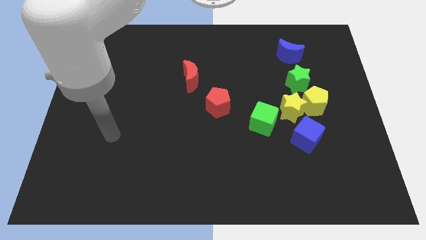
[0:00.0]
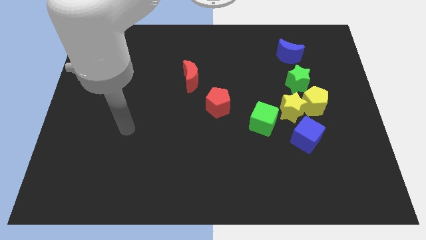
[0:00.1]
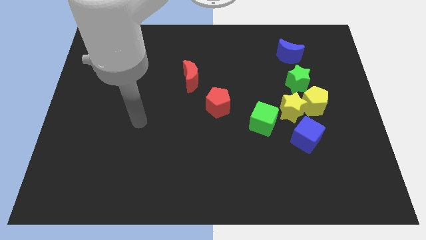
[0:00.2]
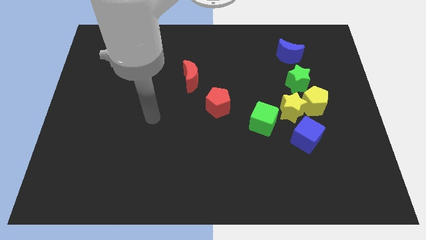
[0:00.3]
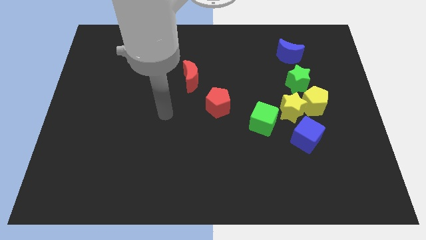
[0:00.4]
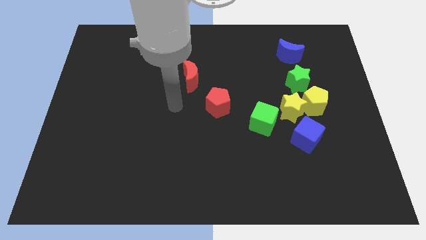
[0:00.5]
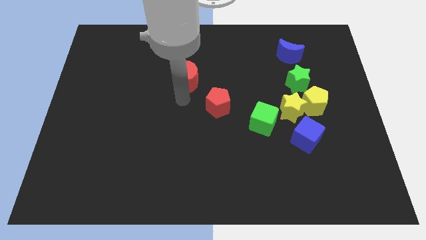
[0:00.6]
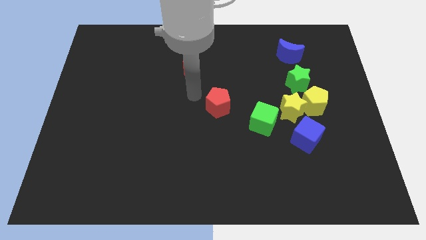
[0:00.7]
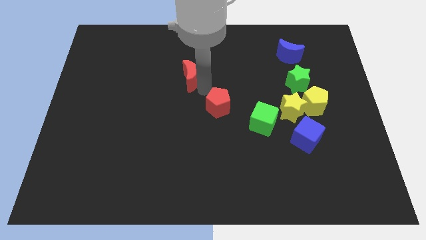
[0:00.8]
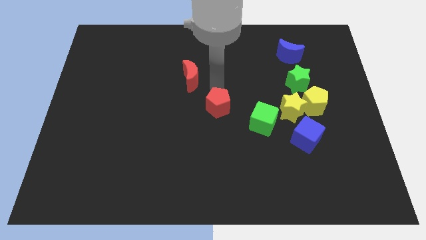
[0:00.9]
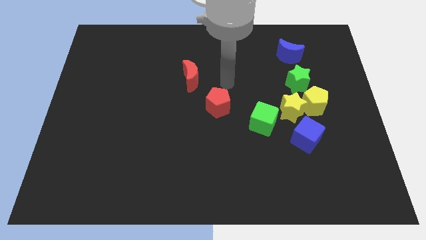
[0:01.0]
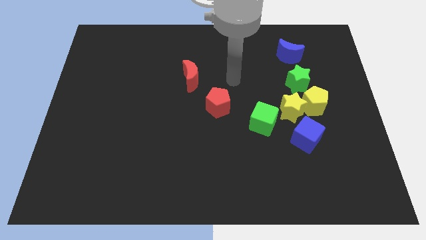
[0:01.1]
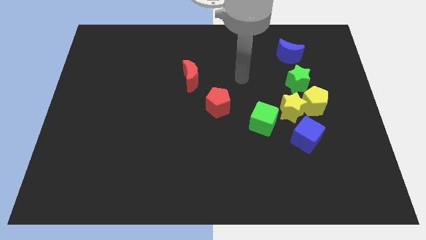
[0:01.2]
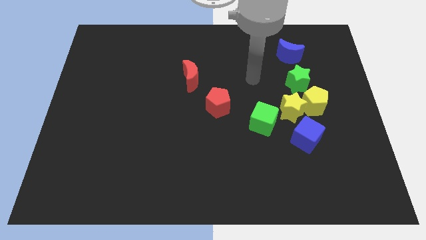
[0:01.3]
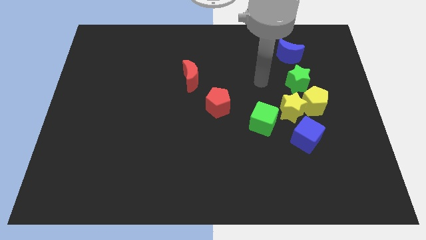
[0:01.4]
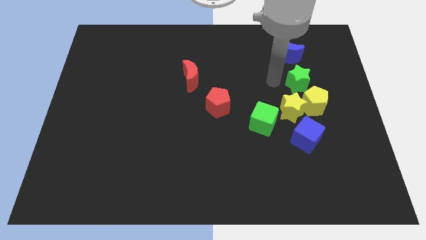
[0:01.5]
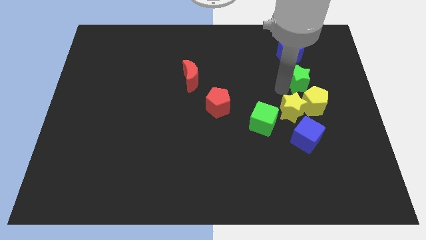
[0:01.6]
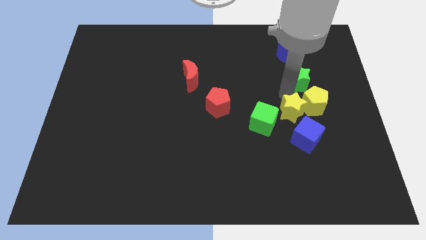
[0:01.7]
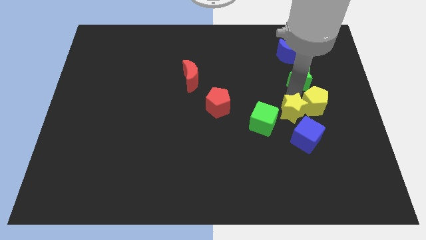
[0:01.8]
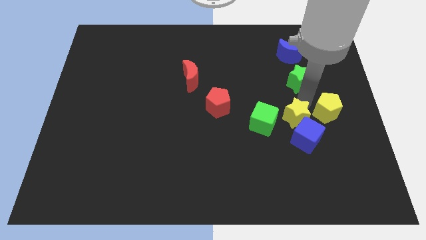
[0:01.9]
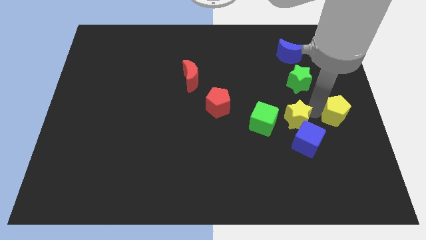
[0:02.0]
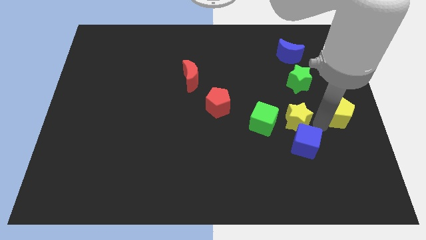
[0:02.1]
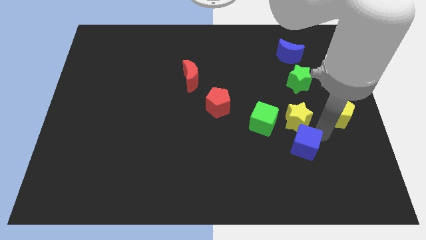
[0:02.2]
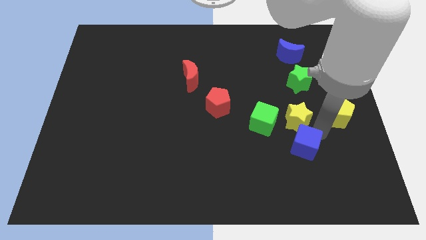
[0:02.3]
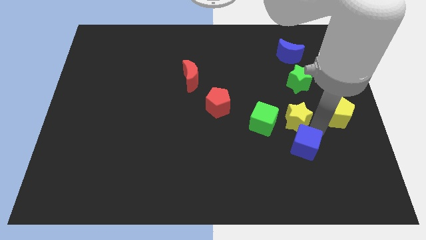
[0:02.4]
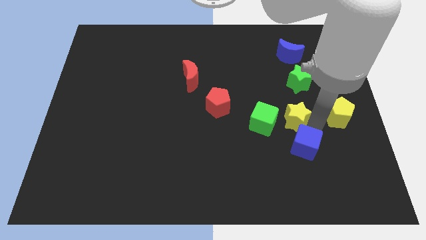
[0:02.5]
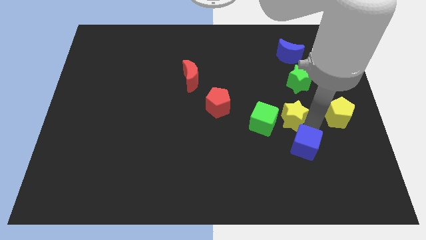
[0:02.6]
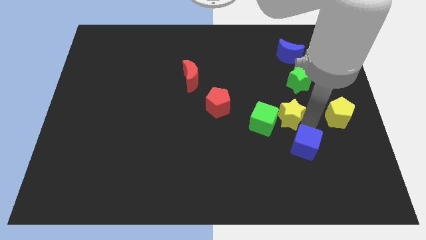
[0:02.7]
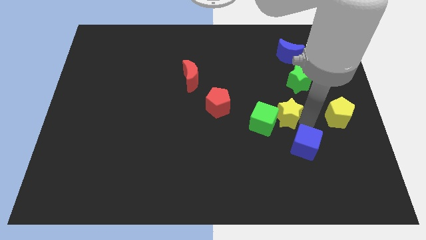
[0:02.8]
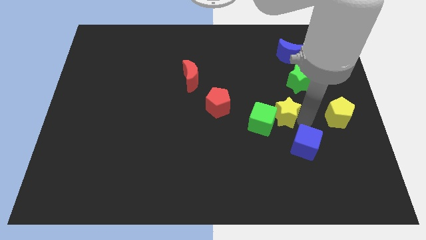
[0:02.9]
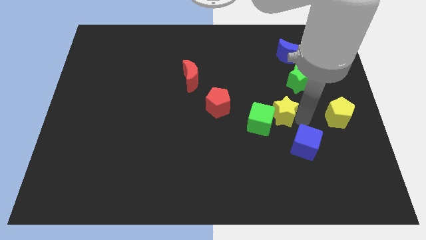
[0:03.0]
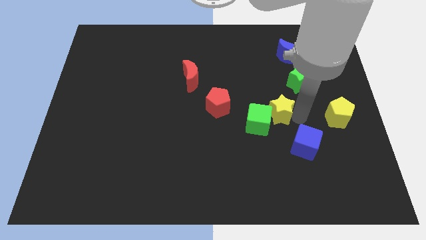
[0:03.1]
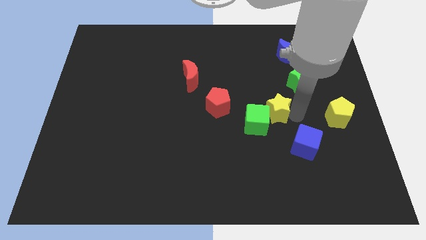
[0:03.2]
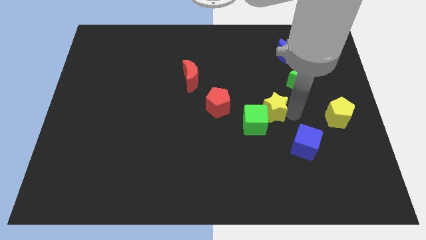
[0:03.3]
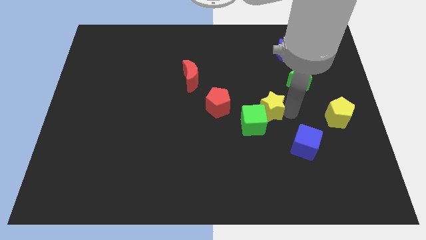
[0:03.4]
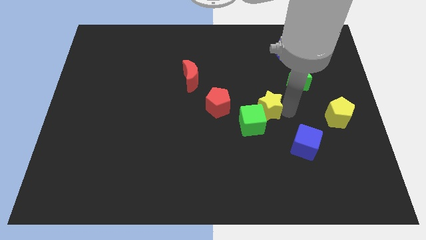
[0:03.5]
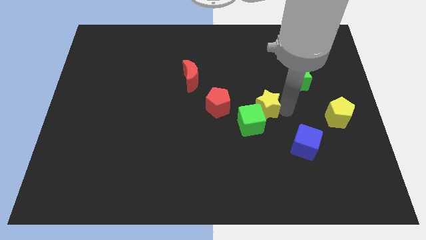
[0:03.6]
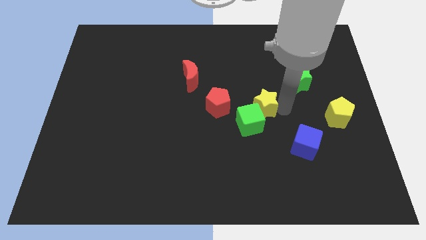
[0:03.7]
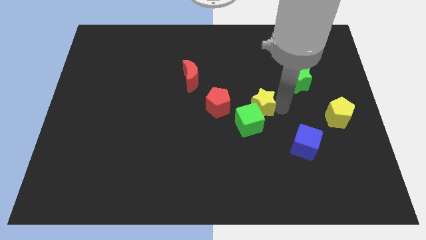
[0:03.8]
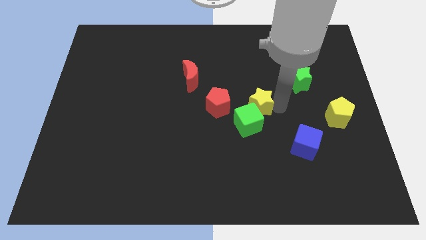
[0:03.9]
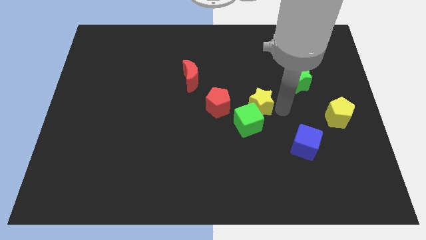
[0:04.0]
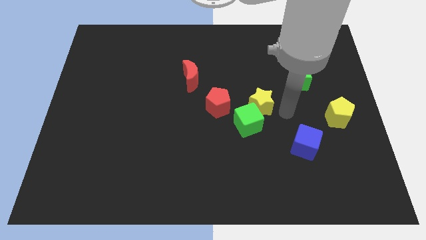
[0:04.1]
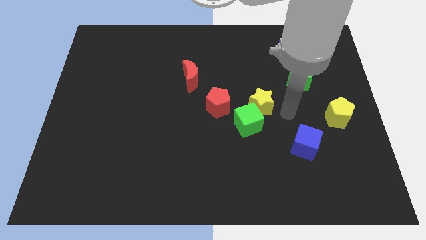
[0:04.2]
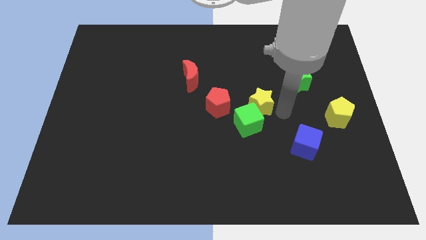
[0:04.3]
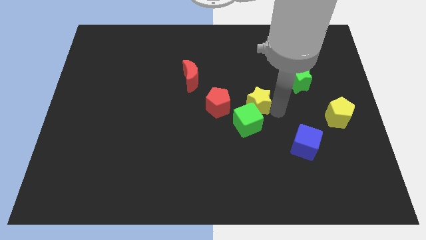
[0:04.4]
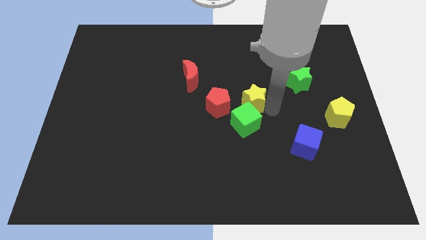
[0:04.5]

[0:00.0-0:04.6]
pull the yellow star apart from the group of blocks

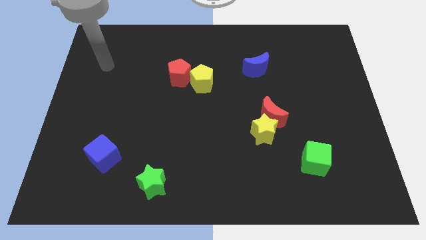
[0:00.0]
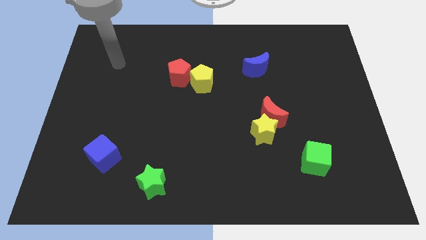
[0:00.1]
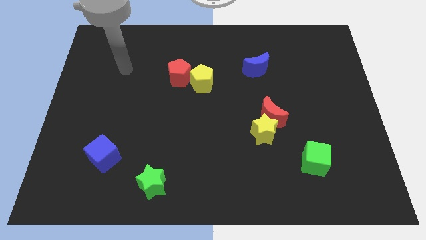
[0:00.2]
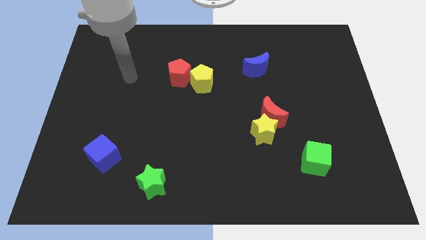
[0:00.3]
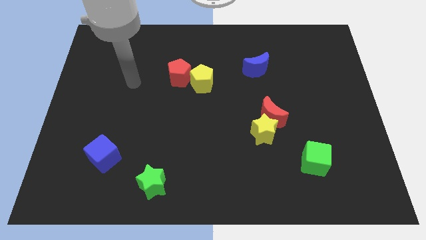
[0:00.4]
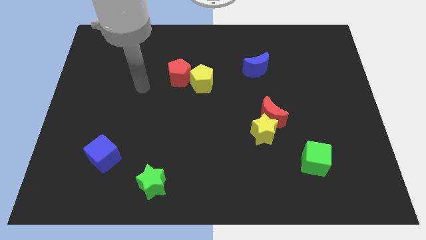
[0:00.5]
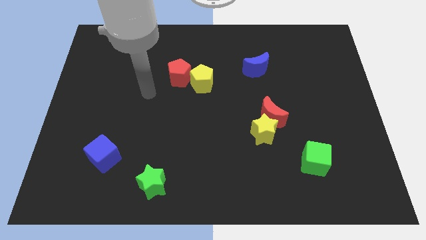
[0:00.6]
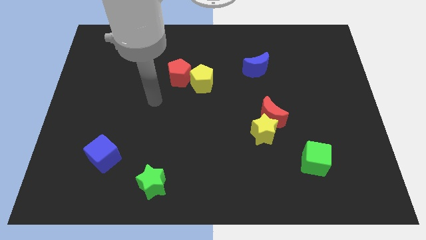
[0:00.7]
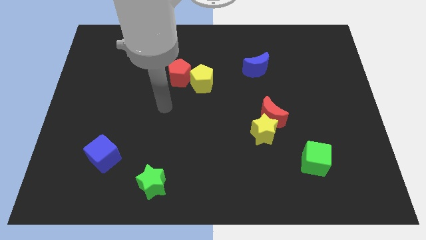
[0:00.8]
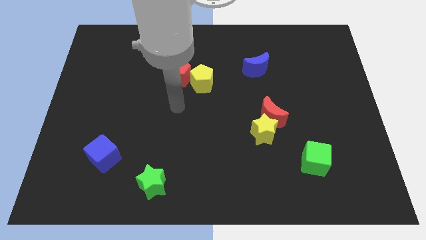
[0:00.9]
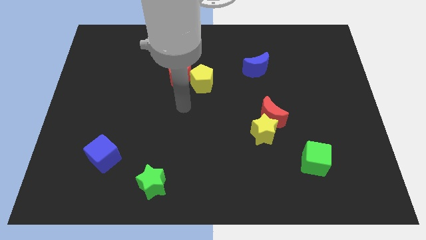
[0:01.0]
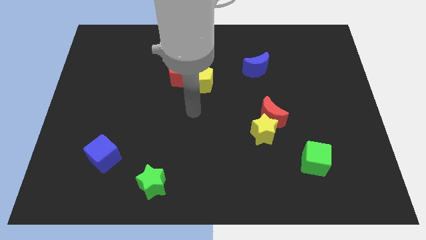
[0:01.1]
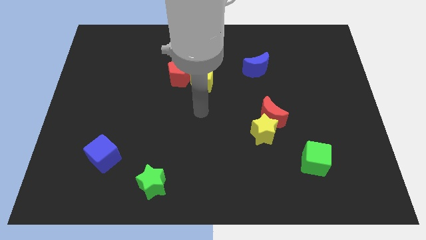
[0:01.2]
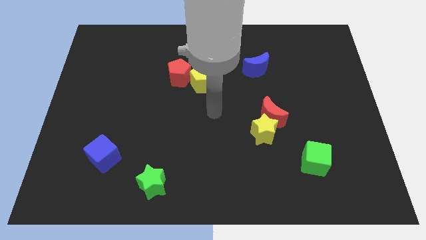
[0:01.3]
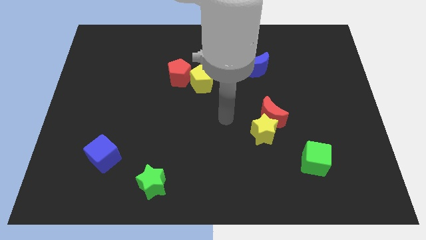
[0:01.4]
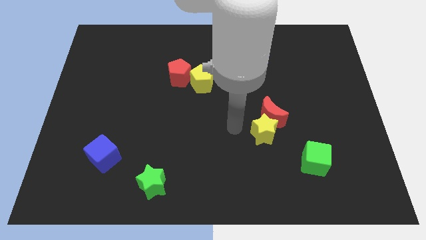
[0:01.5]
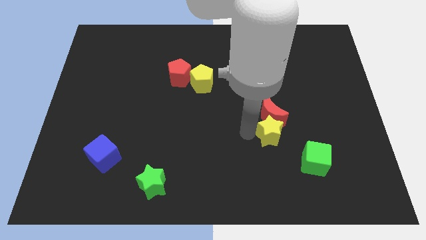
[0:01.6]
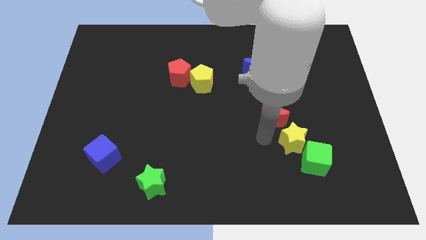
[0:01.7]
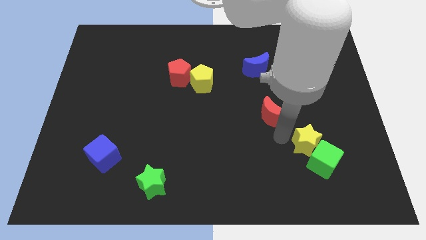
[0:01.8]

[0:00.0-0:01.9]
move the red moon away from the yellow star

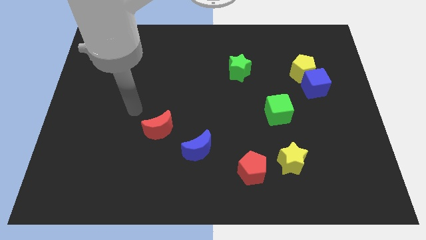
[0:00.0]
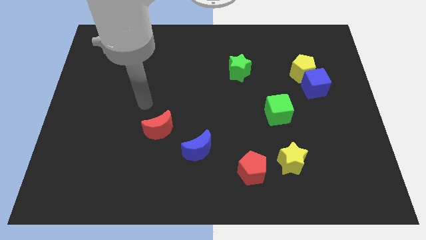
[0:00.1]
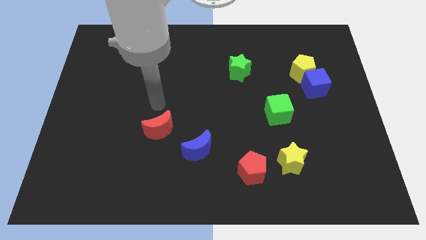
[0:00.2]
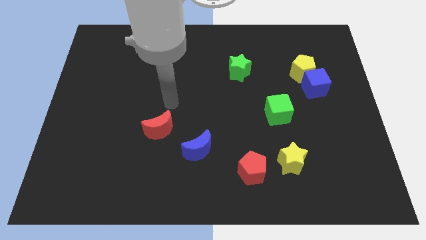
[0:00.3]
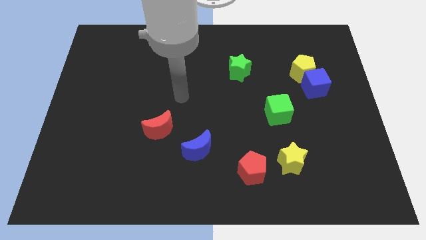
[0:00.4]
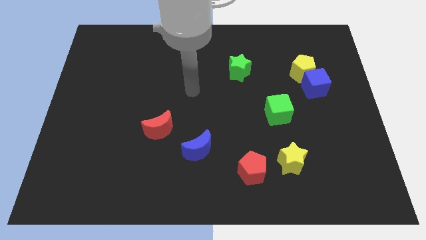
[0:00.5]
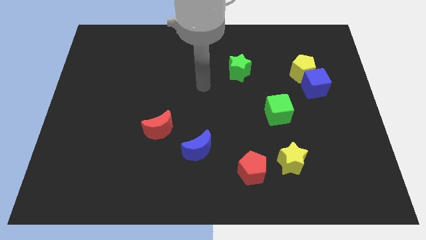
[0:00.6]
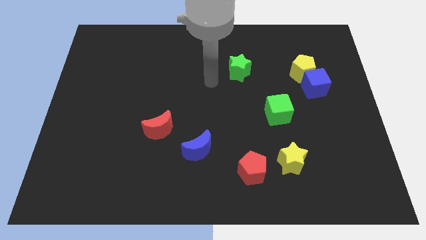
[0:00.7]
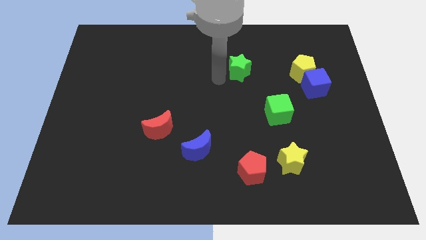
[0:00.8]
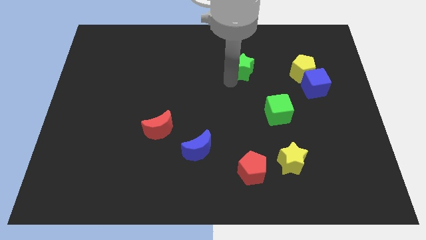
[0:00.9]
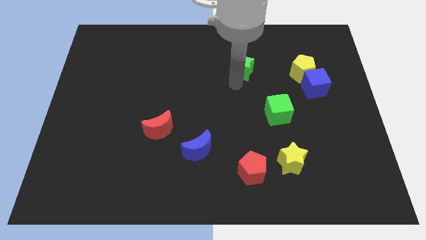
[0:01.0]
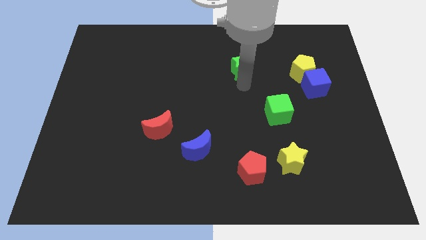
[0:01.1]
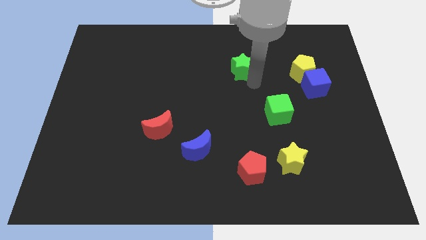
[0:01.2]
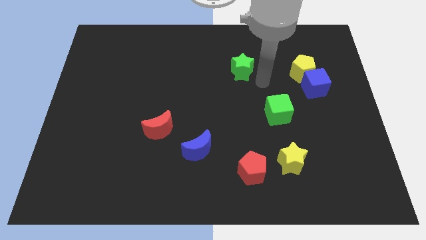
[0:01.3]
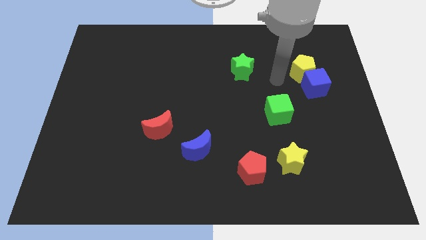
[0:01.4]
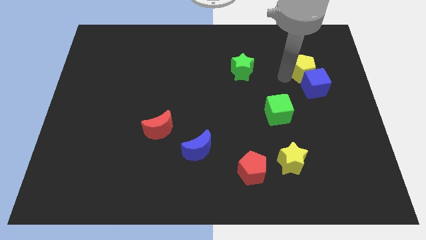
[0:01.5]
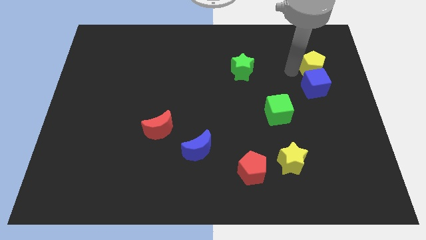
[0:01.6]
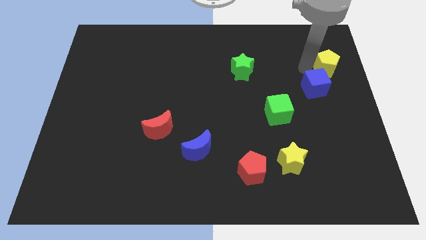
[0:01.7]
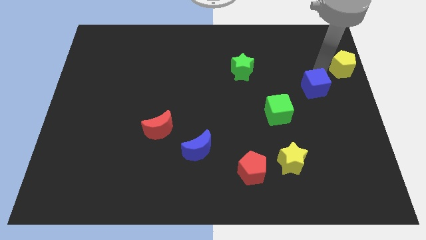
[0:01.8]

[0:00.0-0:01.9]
move the blue cube away from the yellow pentagon

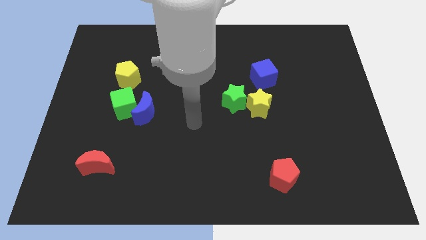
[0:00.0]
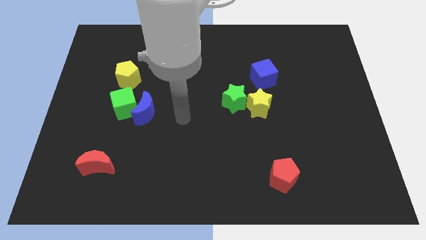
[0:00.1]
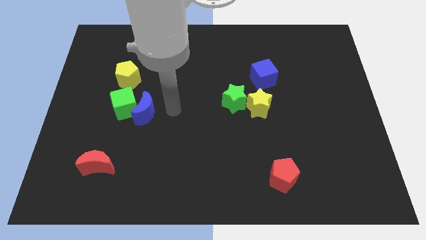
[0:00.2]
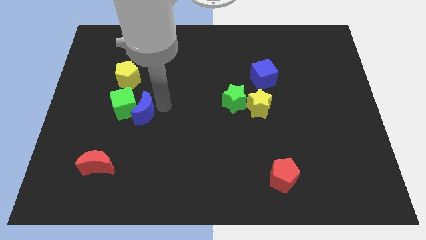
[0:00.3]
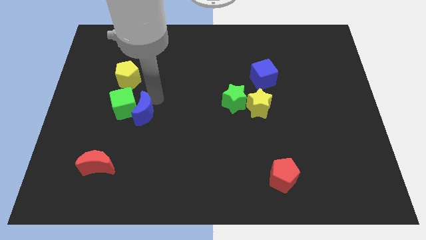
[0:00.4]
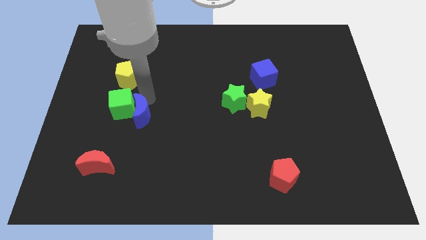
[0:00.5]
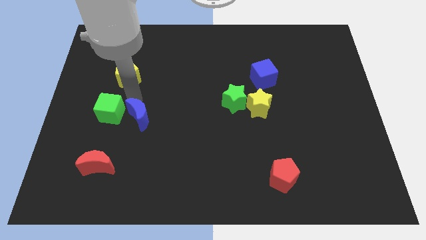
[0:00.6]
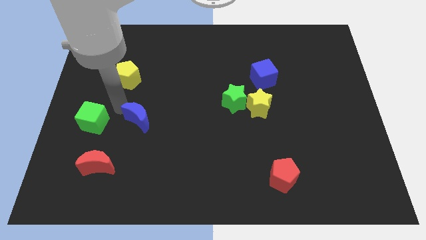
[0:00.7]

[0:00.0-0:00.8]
pull the blue moon apart from the green cube
